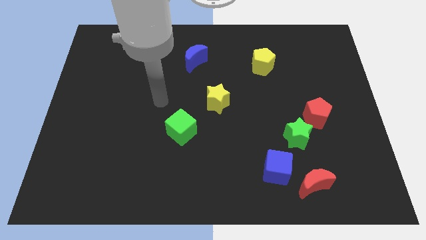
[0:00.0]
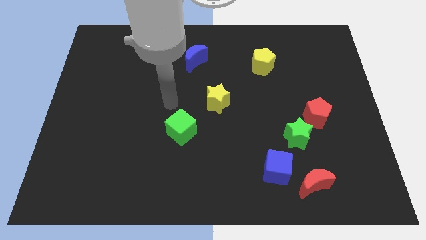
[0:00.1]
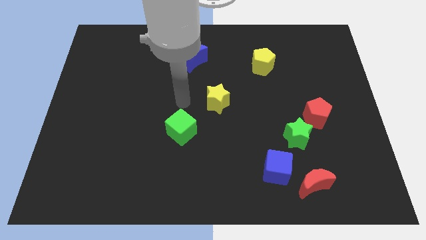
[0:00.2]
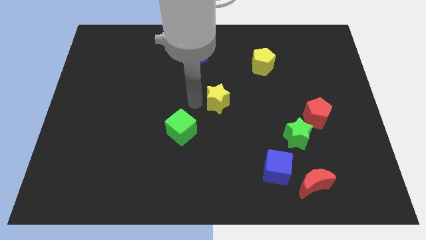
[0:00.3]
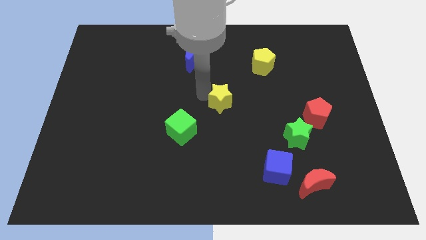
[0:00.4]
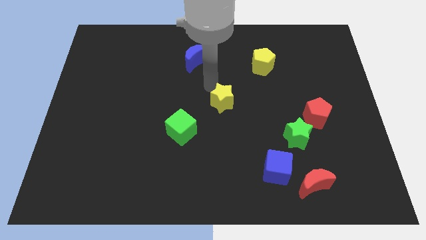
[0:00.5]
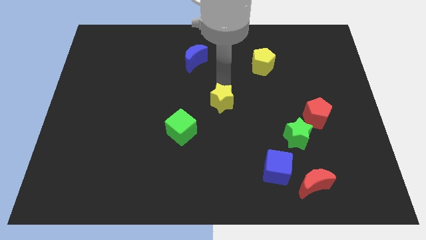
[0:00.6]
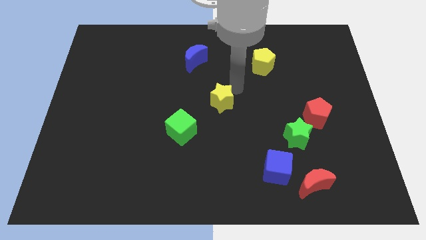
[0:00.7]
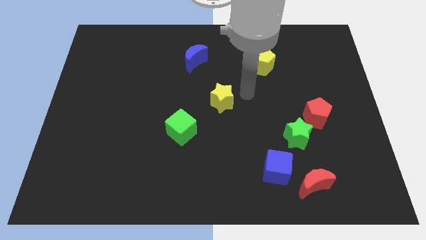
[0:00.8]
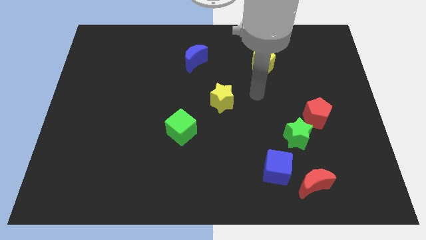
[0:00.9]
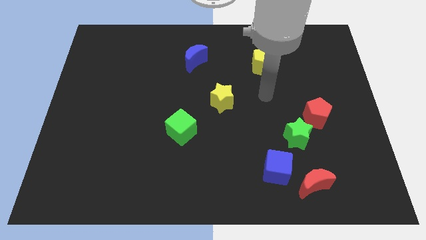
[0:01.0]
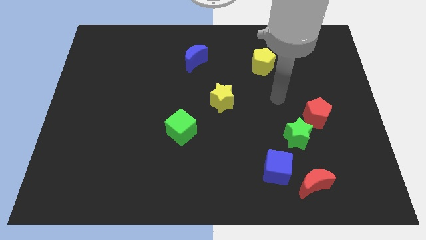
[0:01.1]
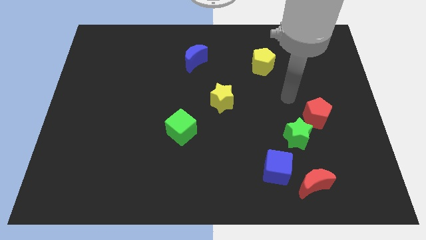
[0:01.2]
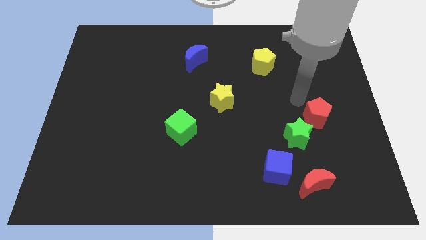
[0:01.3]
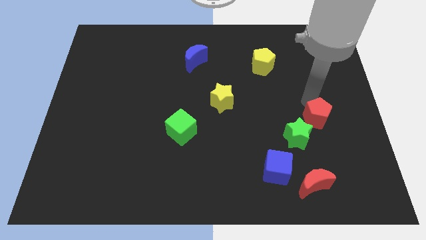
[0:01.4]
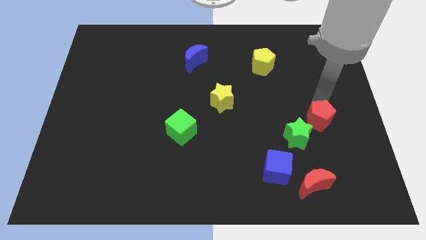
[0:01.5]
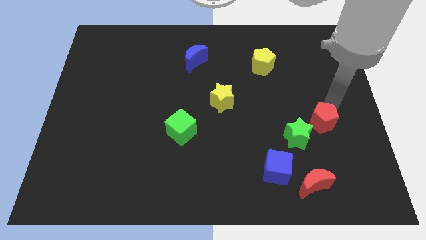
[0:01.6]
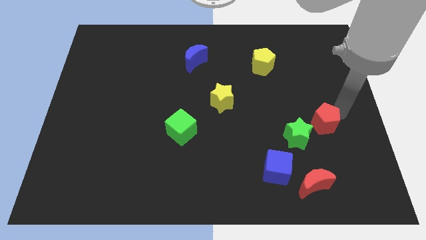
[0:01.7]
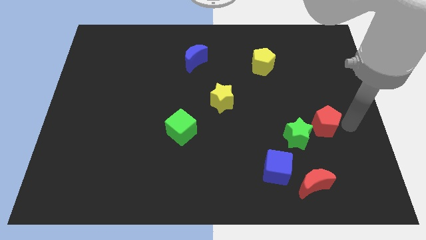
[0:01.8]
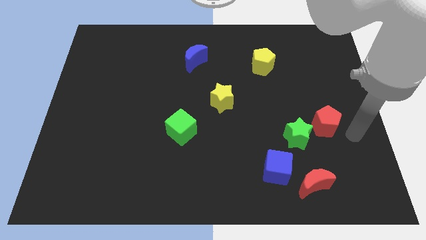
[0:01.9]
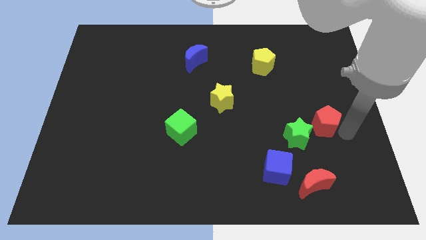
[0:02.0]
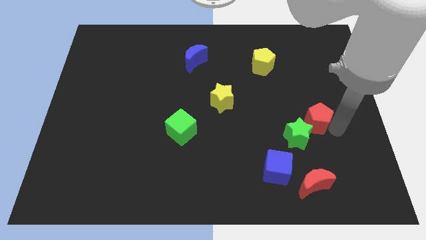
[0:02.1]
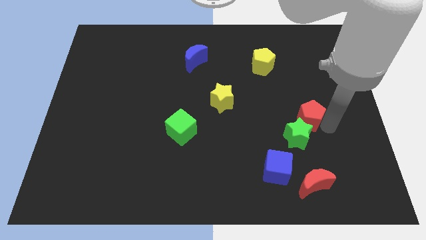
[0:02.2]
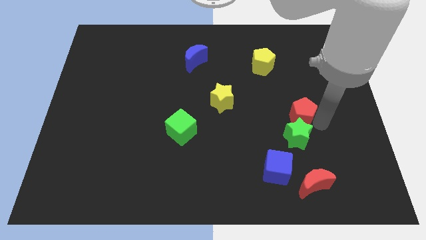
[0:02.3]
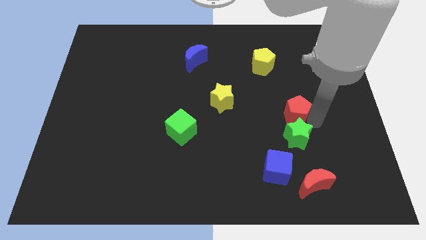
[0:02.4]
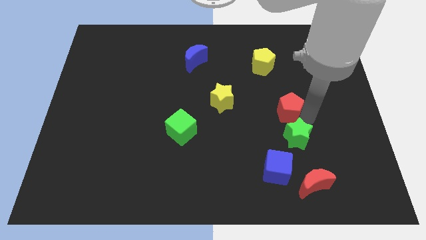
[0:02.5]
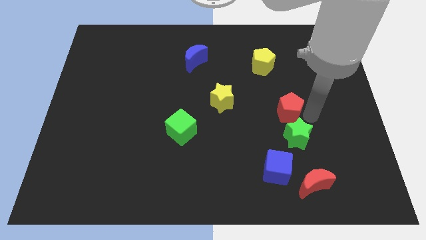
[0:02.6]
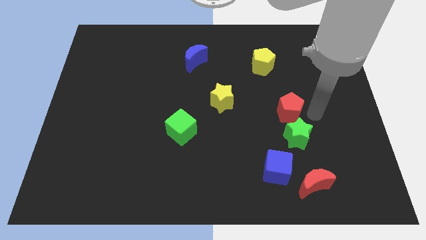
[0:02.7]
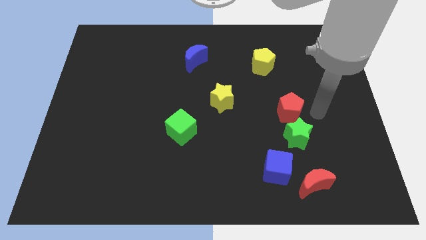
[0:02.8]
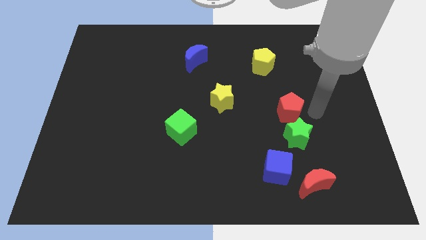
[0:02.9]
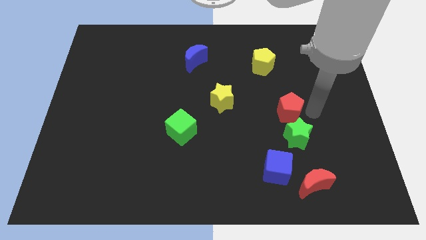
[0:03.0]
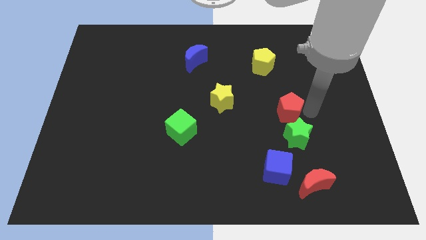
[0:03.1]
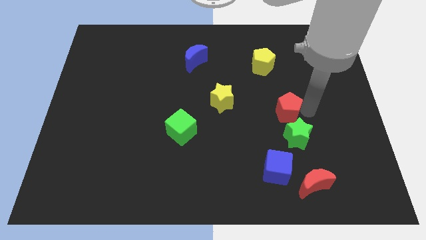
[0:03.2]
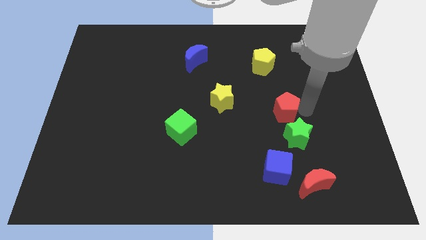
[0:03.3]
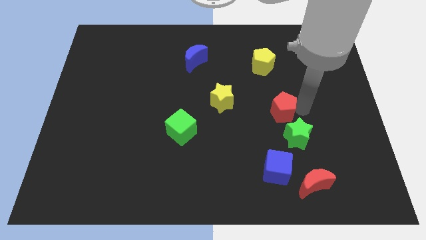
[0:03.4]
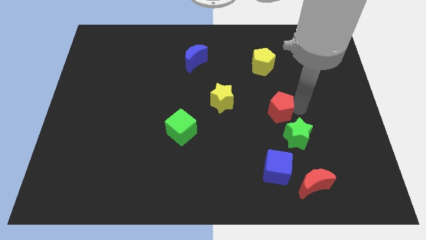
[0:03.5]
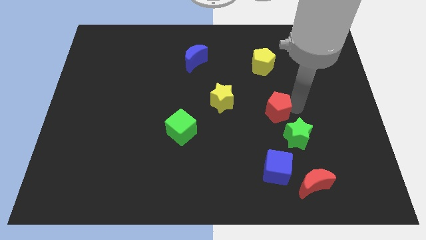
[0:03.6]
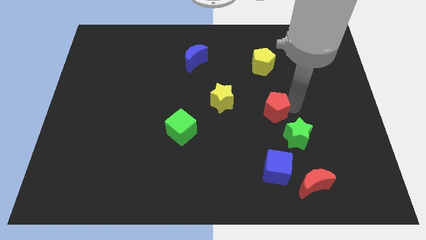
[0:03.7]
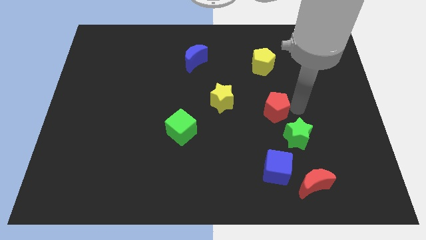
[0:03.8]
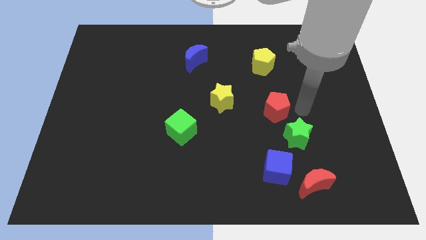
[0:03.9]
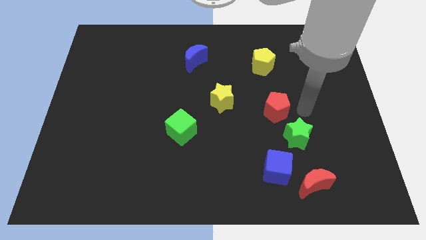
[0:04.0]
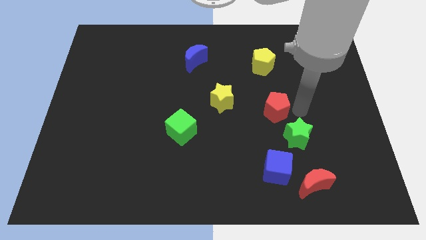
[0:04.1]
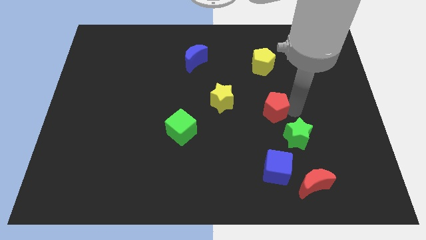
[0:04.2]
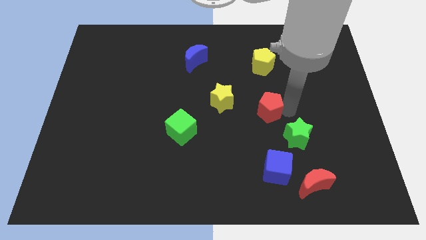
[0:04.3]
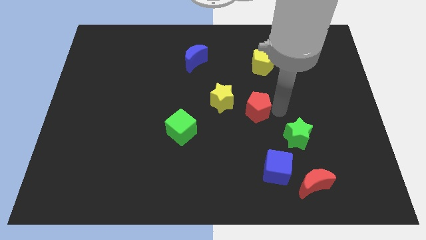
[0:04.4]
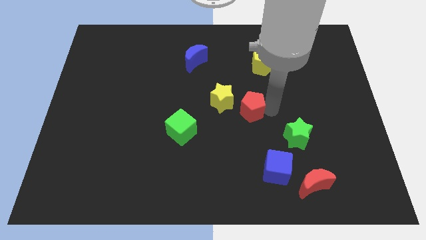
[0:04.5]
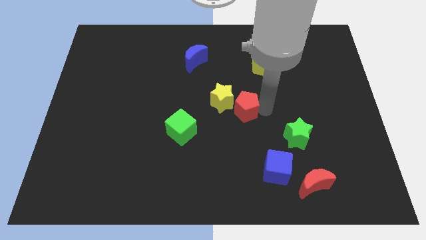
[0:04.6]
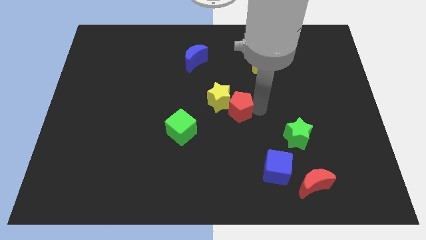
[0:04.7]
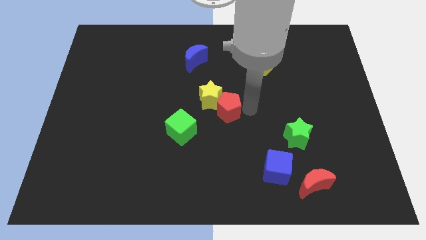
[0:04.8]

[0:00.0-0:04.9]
push the red pentagon left

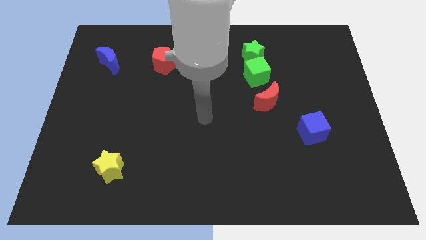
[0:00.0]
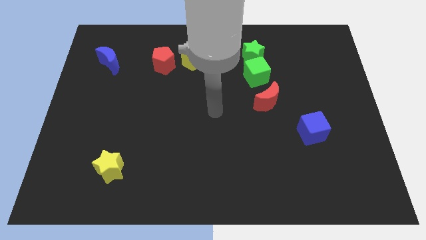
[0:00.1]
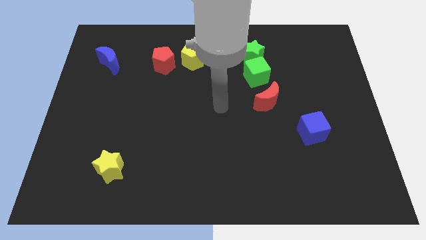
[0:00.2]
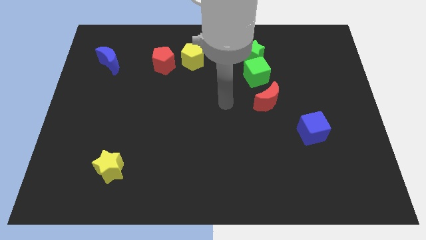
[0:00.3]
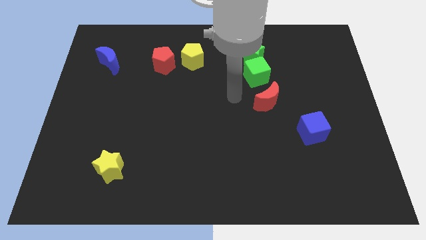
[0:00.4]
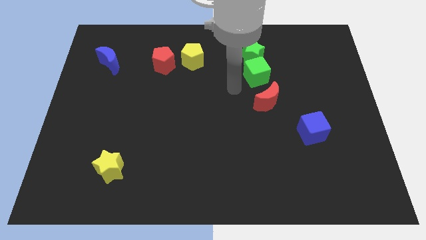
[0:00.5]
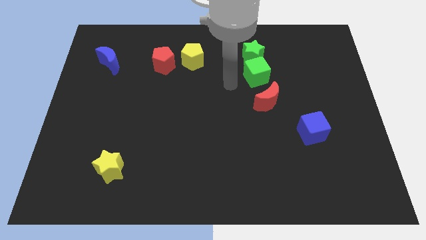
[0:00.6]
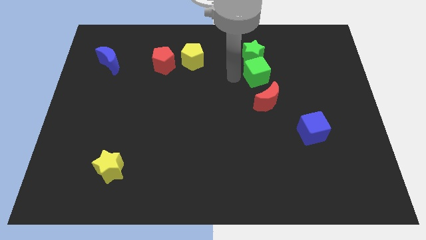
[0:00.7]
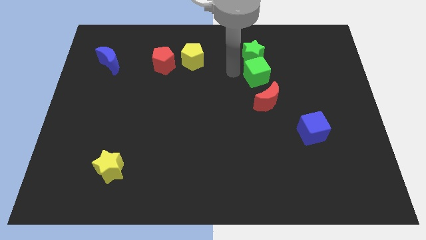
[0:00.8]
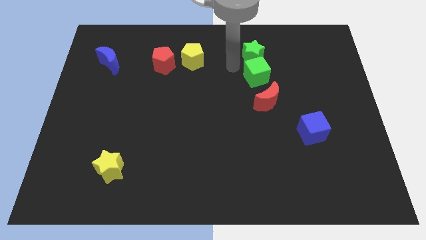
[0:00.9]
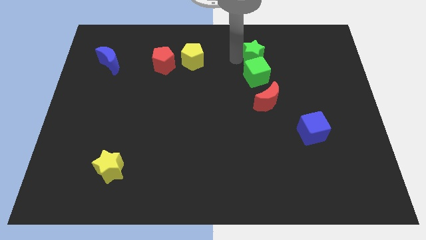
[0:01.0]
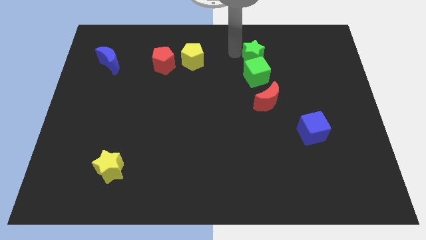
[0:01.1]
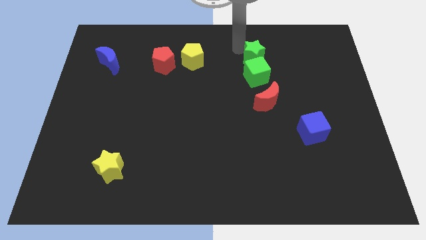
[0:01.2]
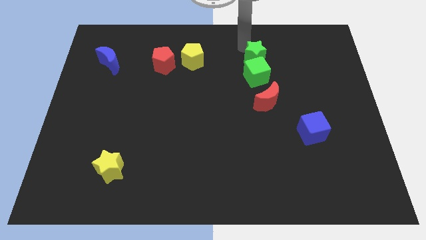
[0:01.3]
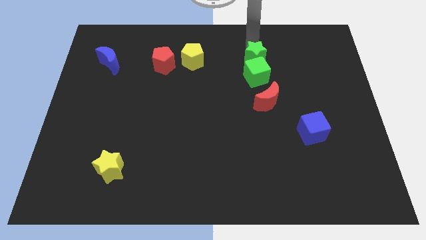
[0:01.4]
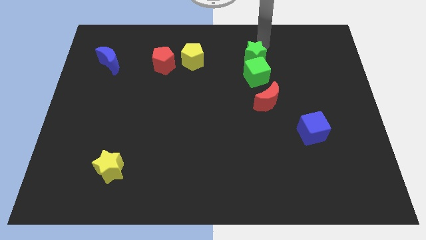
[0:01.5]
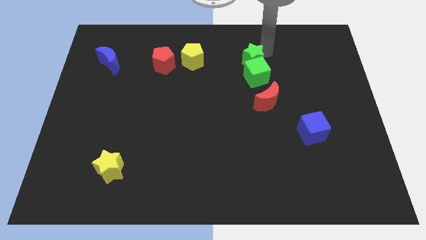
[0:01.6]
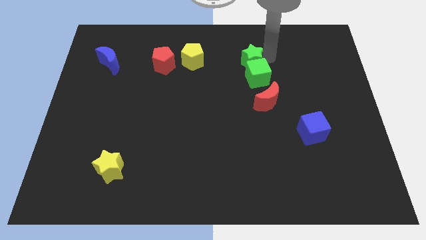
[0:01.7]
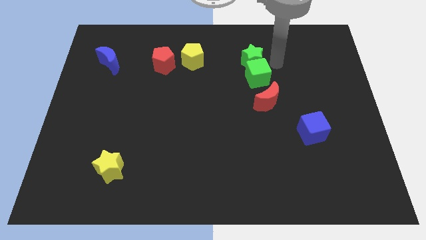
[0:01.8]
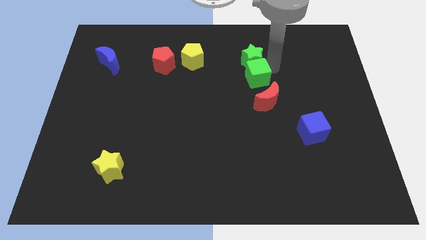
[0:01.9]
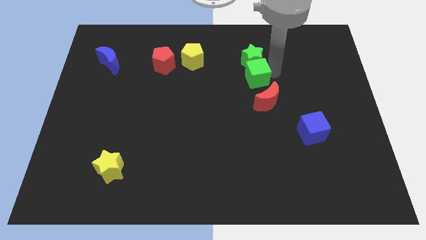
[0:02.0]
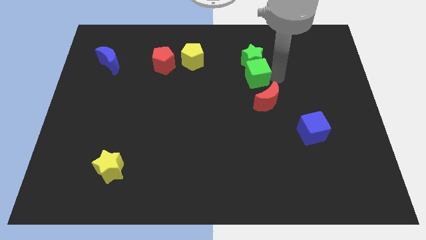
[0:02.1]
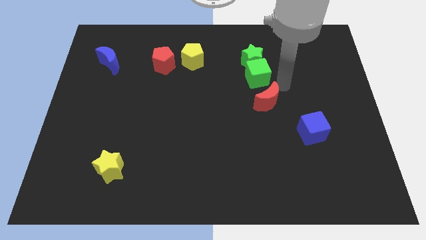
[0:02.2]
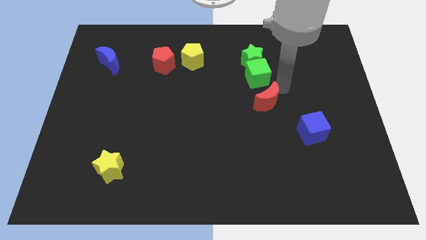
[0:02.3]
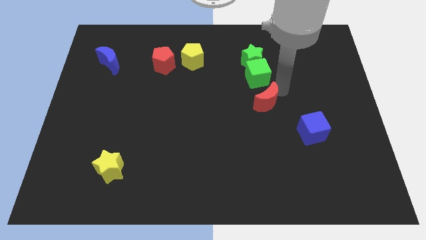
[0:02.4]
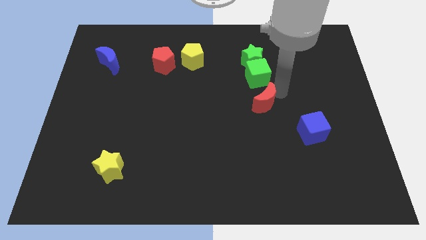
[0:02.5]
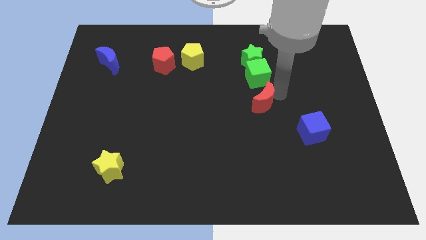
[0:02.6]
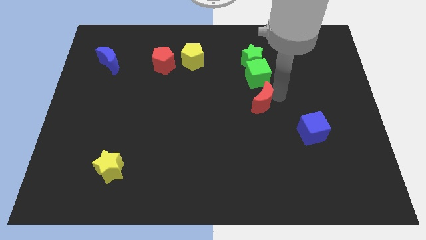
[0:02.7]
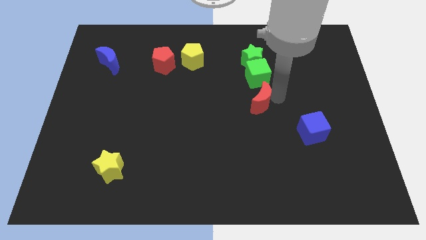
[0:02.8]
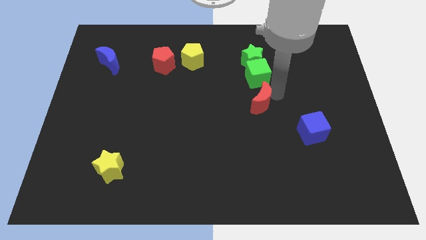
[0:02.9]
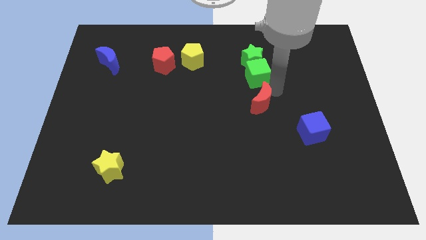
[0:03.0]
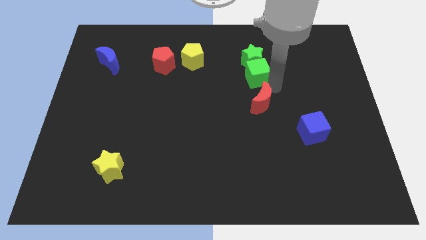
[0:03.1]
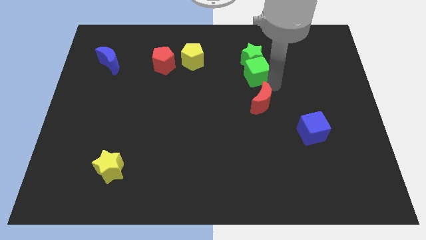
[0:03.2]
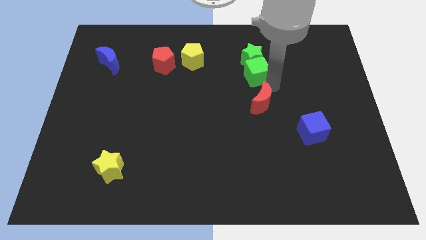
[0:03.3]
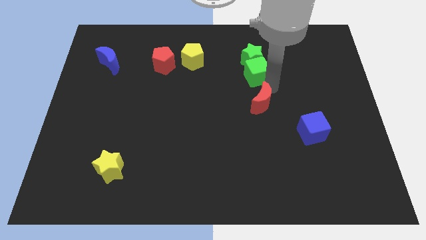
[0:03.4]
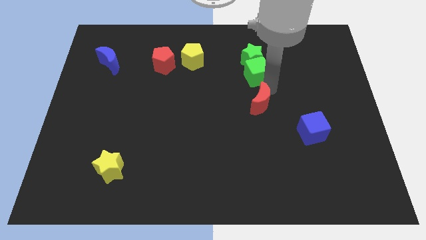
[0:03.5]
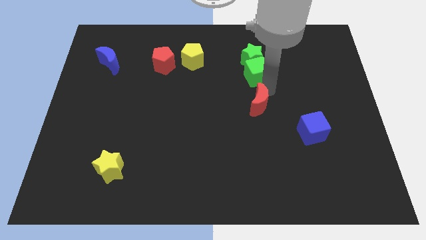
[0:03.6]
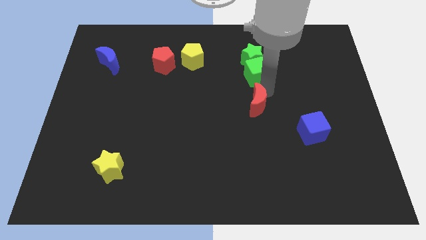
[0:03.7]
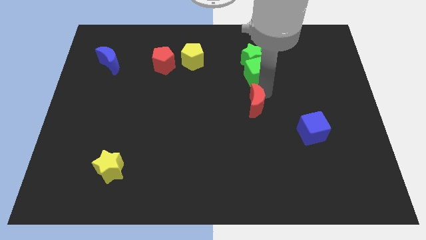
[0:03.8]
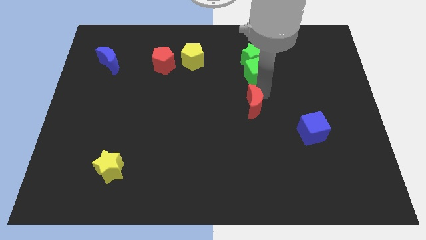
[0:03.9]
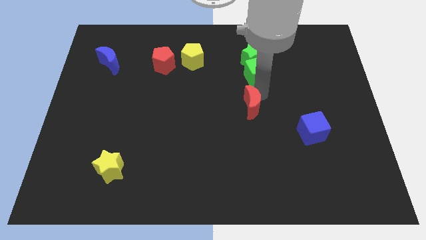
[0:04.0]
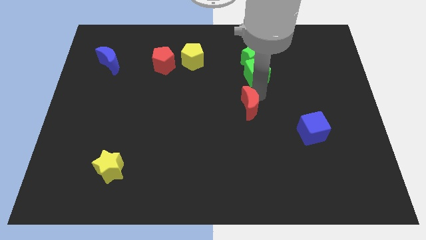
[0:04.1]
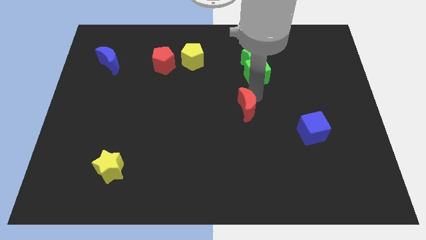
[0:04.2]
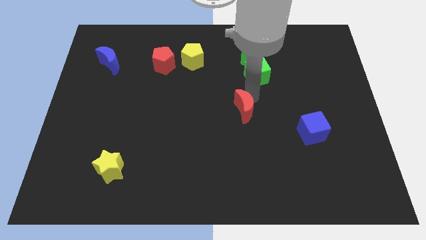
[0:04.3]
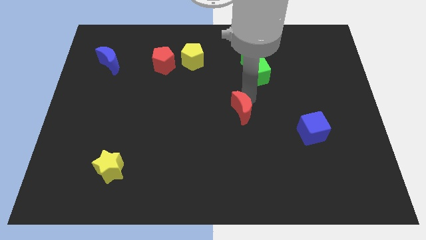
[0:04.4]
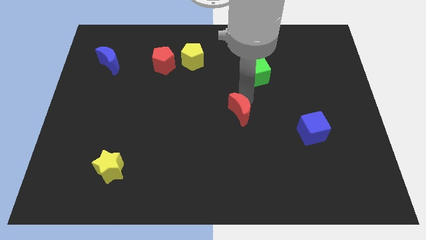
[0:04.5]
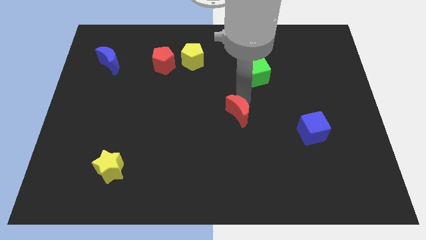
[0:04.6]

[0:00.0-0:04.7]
move the red moon a bit downwards and then left
